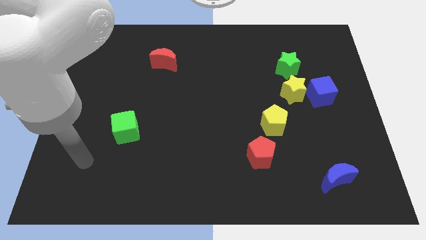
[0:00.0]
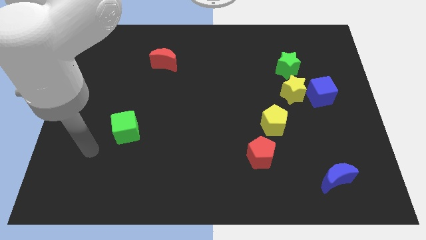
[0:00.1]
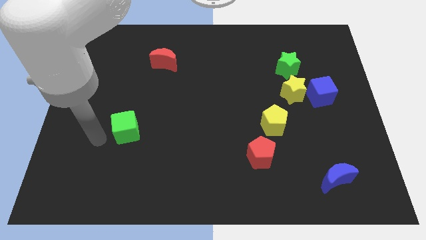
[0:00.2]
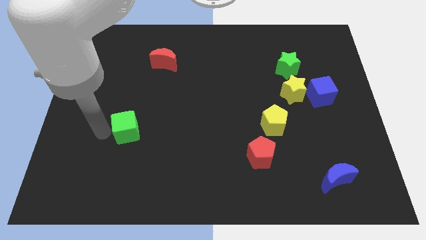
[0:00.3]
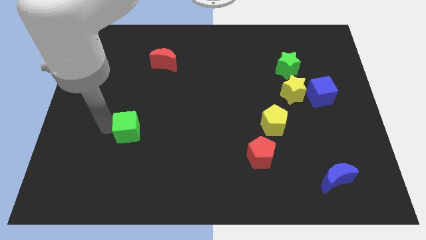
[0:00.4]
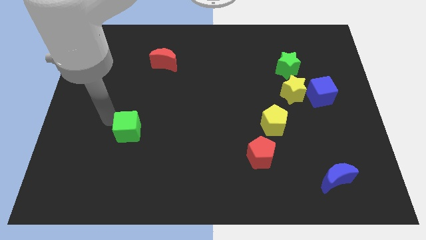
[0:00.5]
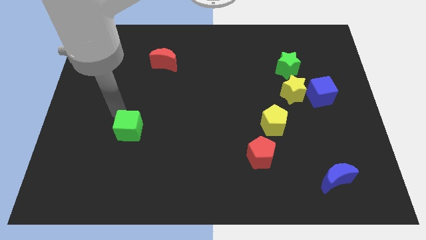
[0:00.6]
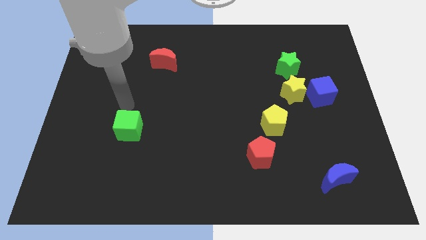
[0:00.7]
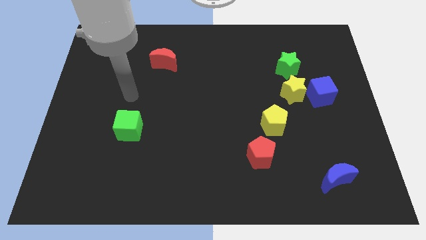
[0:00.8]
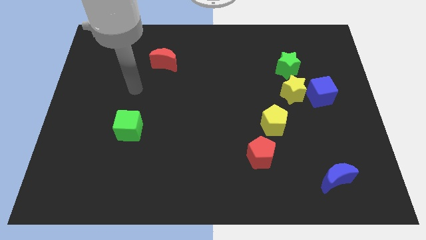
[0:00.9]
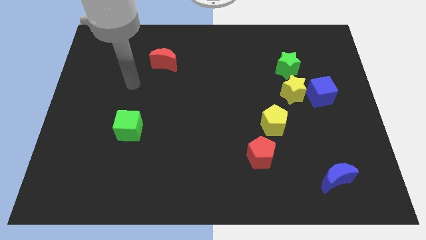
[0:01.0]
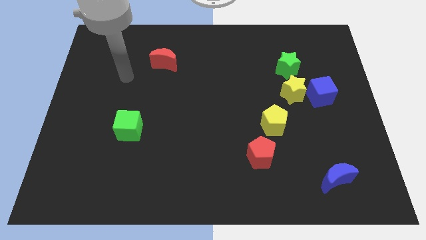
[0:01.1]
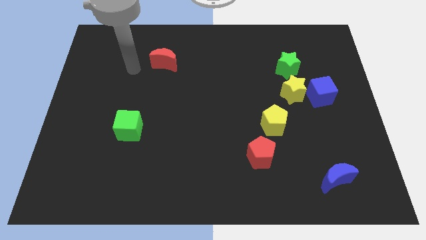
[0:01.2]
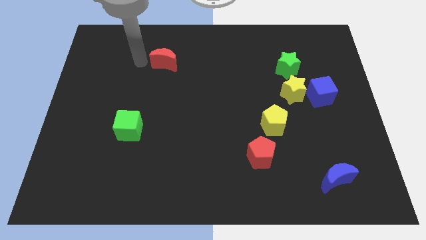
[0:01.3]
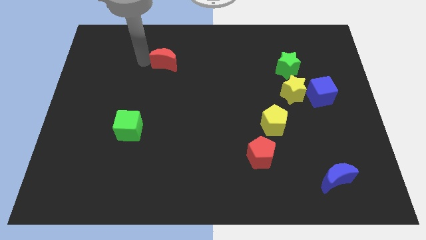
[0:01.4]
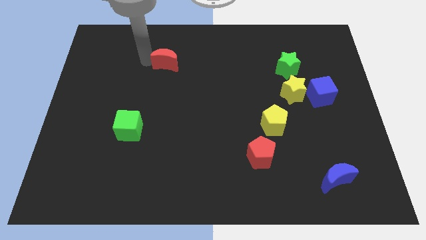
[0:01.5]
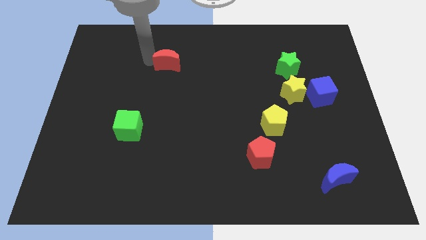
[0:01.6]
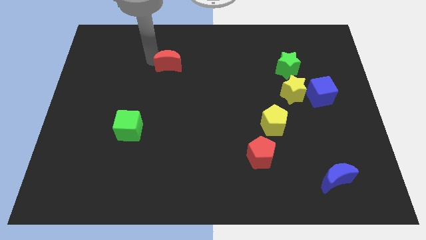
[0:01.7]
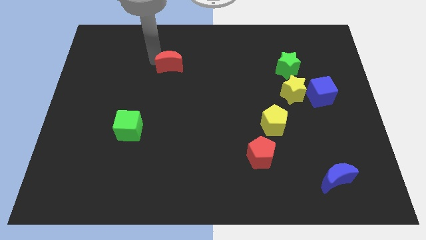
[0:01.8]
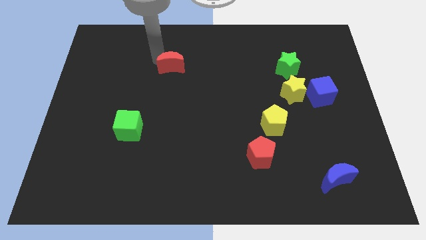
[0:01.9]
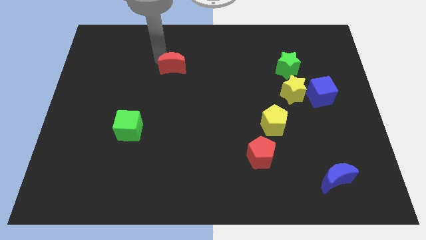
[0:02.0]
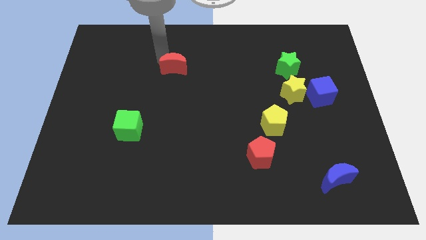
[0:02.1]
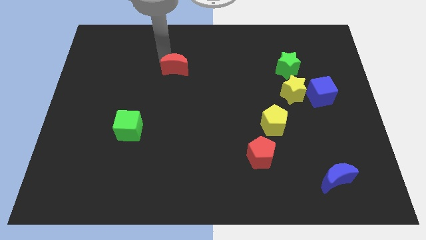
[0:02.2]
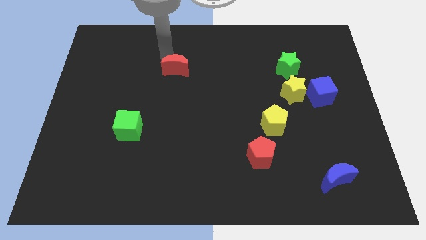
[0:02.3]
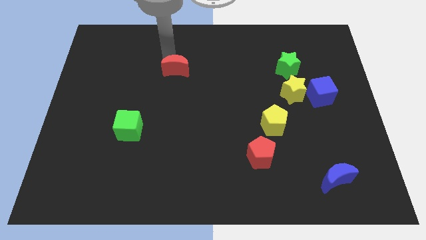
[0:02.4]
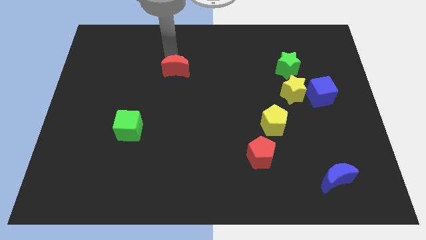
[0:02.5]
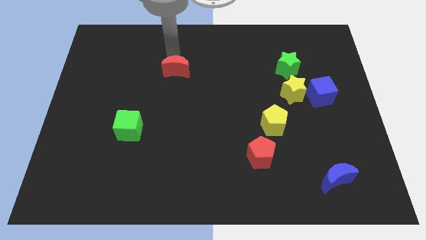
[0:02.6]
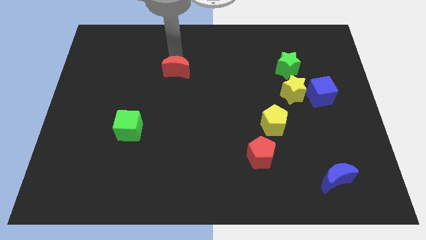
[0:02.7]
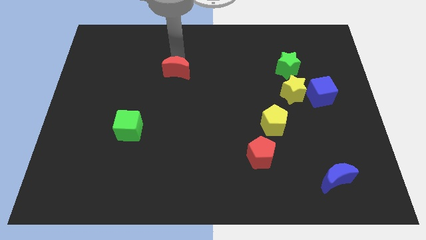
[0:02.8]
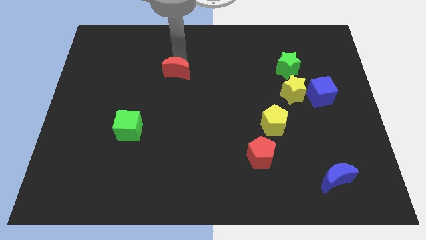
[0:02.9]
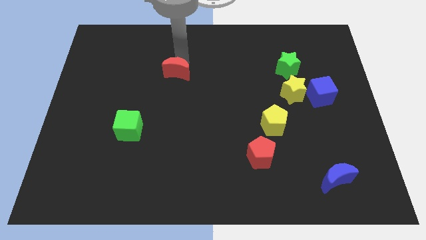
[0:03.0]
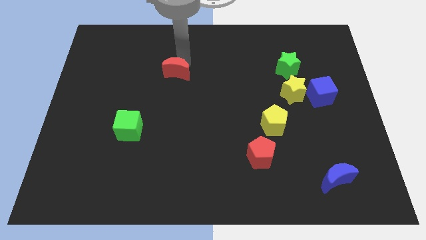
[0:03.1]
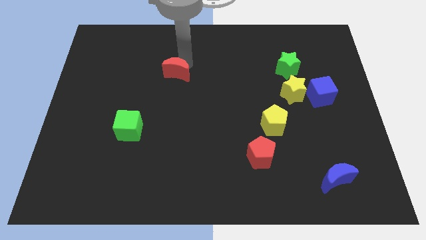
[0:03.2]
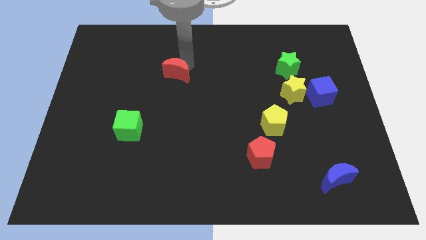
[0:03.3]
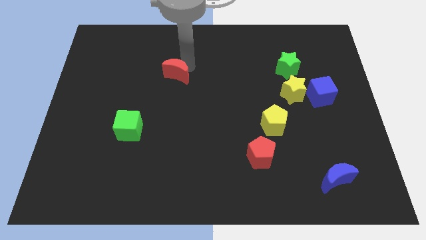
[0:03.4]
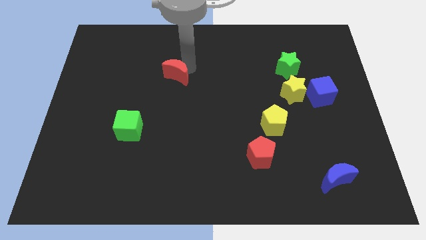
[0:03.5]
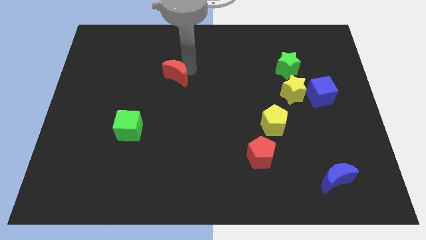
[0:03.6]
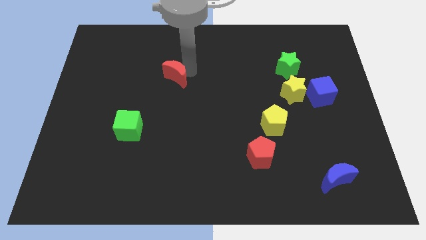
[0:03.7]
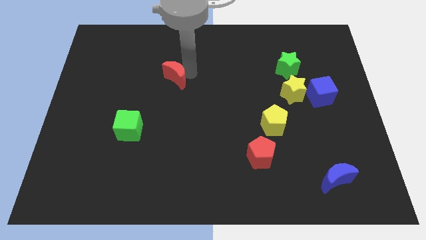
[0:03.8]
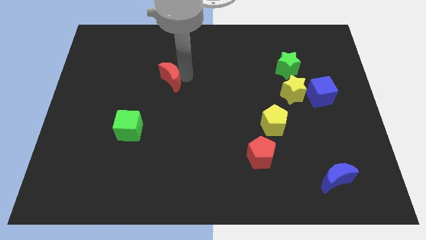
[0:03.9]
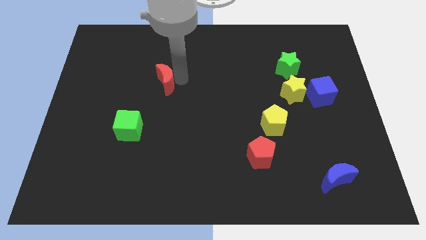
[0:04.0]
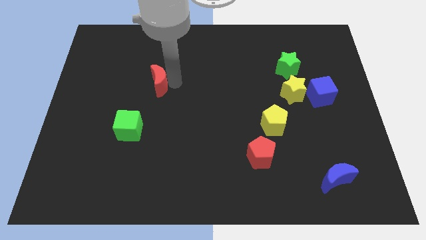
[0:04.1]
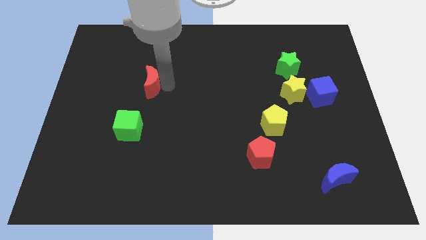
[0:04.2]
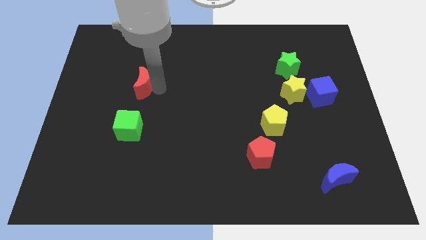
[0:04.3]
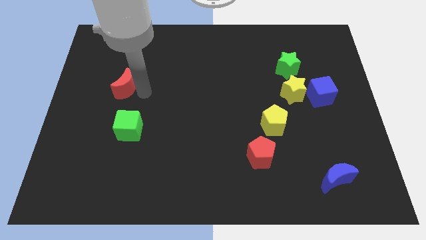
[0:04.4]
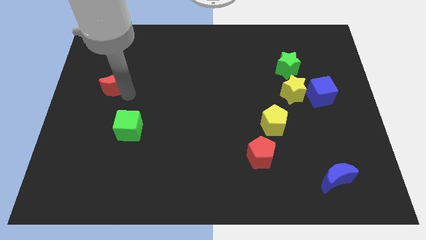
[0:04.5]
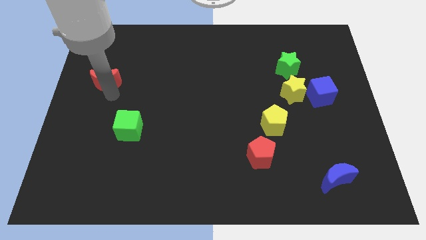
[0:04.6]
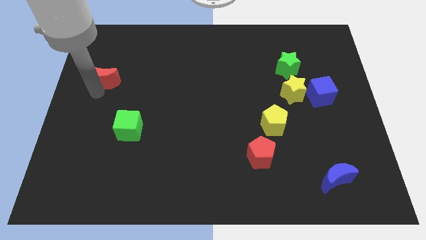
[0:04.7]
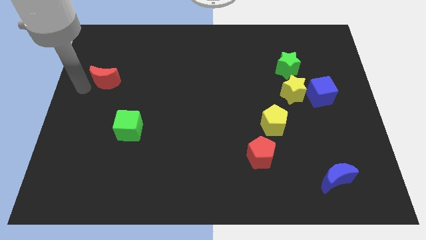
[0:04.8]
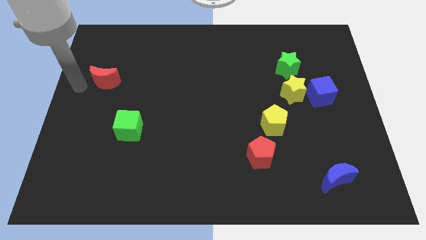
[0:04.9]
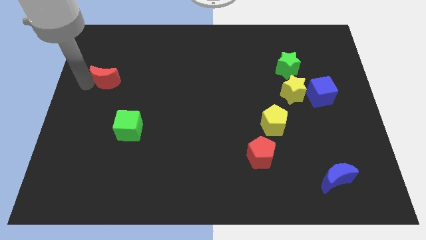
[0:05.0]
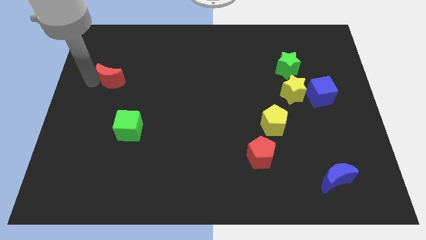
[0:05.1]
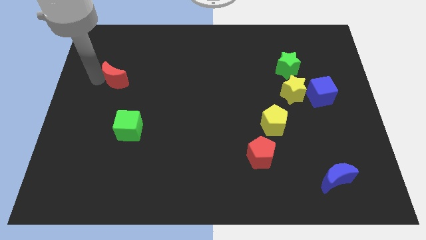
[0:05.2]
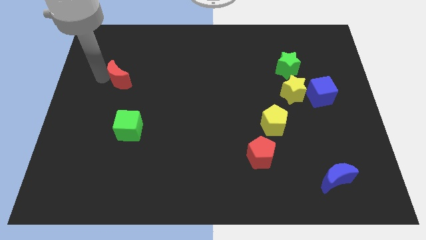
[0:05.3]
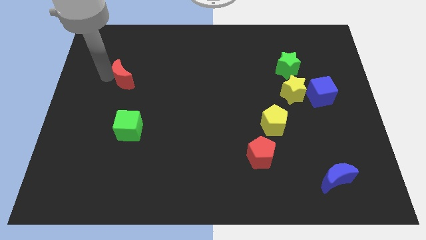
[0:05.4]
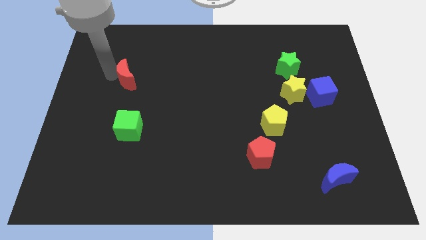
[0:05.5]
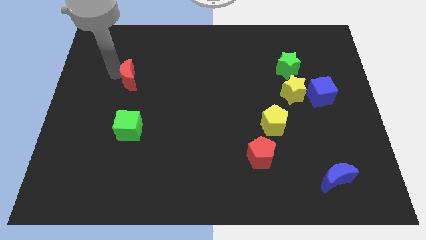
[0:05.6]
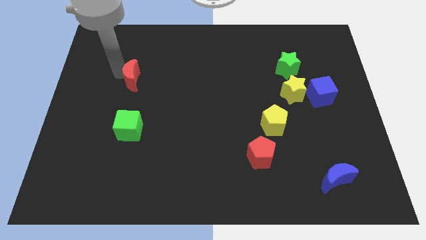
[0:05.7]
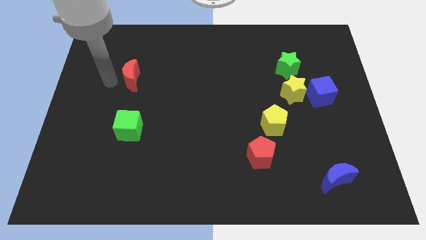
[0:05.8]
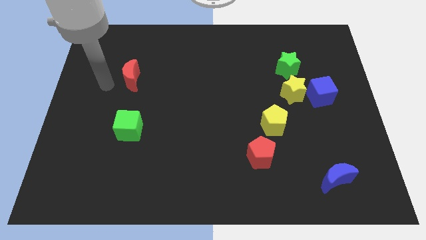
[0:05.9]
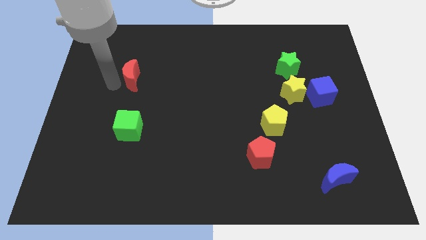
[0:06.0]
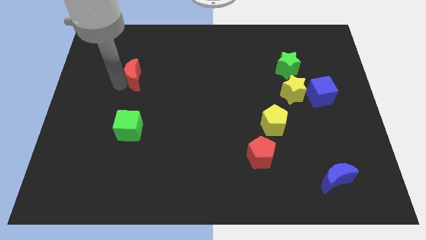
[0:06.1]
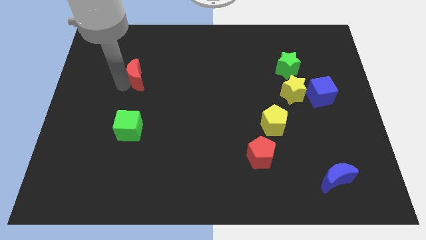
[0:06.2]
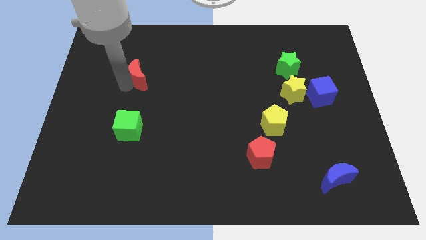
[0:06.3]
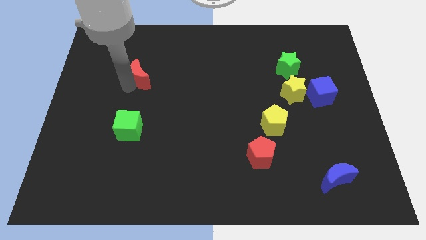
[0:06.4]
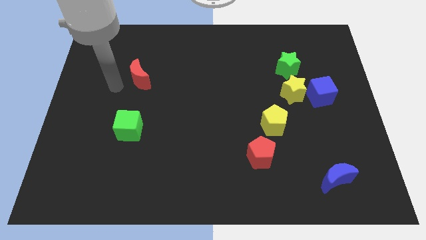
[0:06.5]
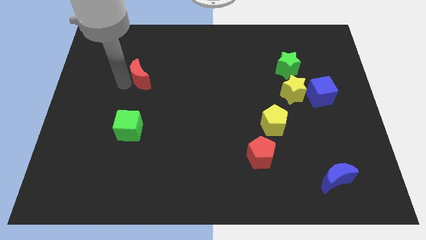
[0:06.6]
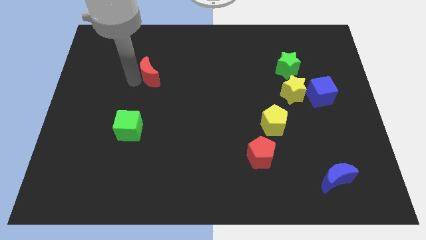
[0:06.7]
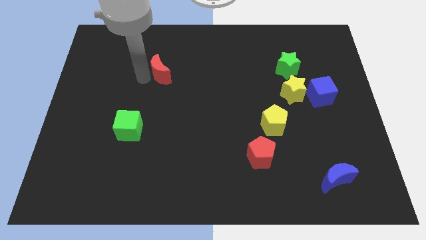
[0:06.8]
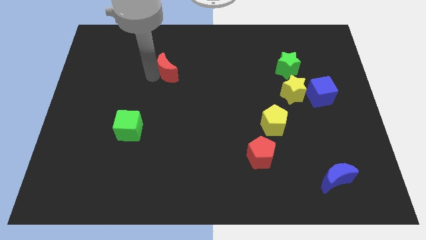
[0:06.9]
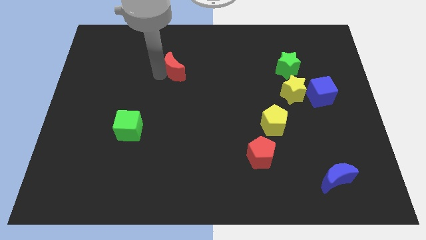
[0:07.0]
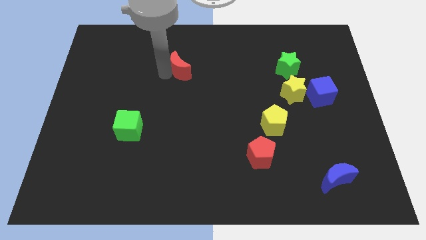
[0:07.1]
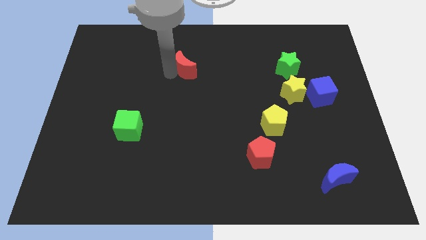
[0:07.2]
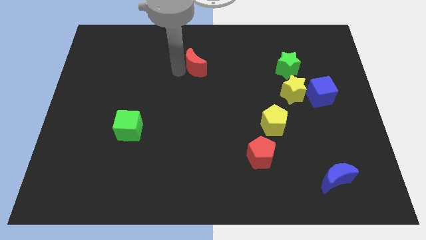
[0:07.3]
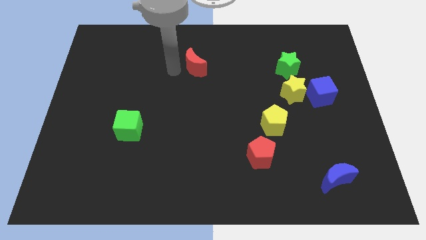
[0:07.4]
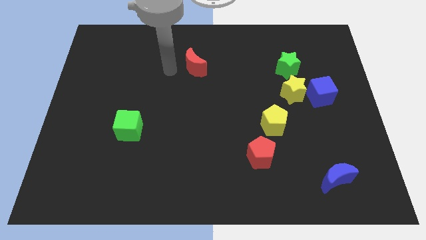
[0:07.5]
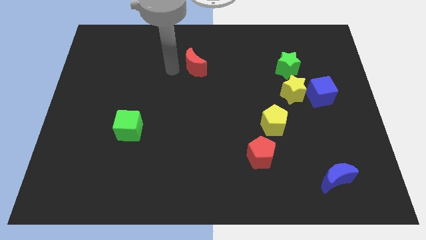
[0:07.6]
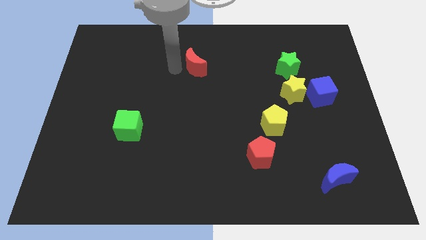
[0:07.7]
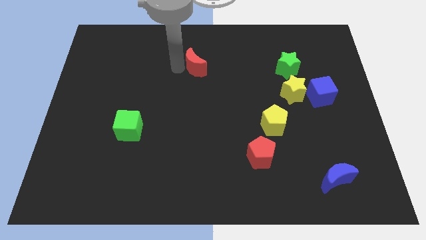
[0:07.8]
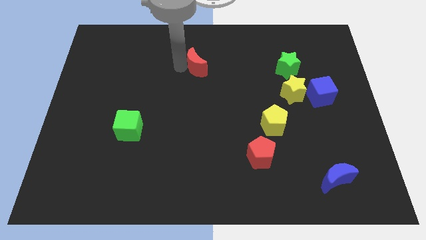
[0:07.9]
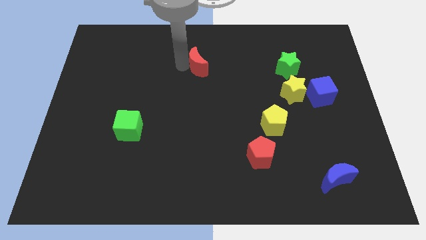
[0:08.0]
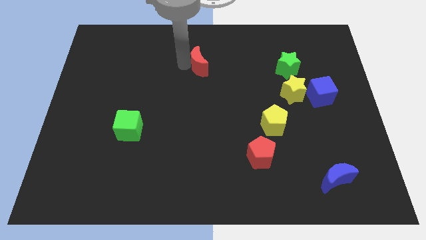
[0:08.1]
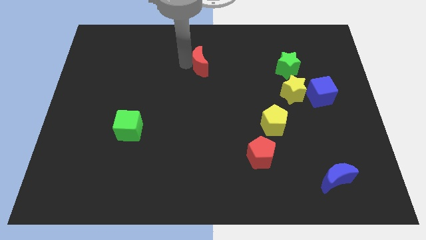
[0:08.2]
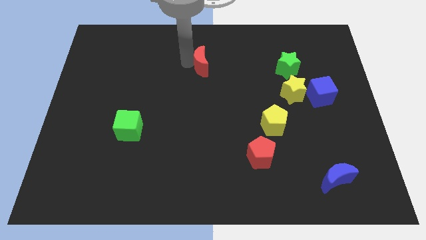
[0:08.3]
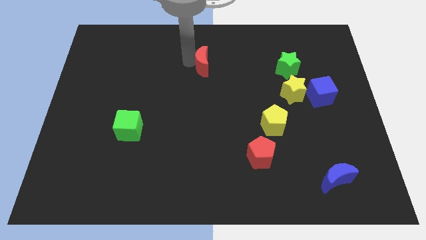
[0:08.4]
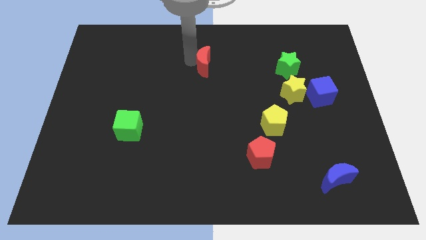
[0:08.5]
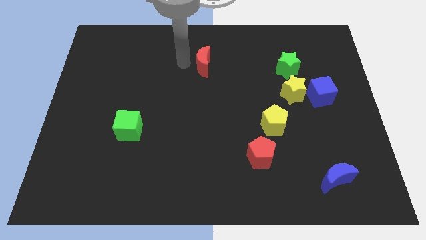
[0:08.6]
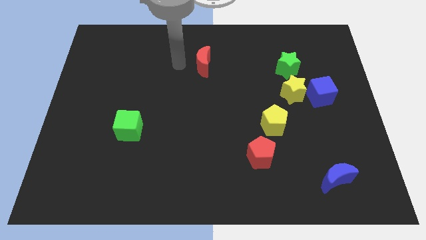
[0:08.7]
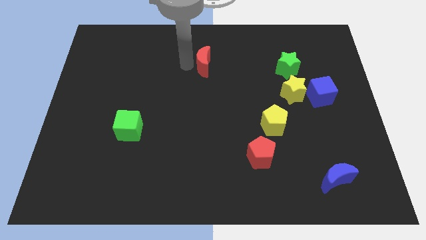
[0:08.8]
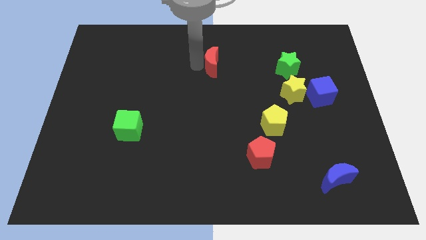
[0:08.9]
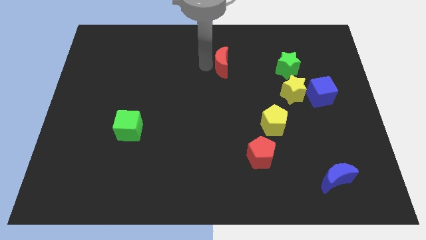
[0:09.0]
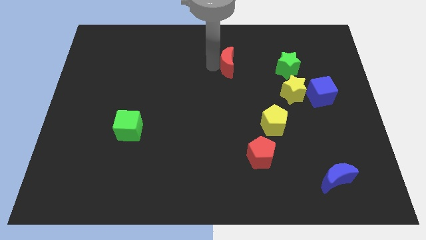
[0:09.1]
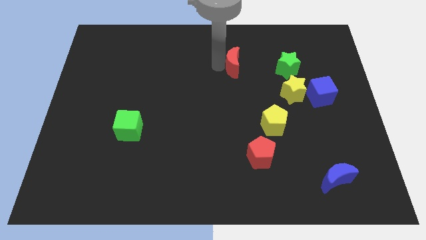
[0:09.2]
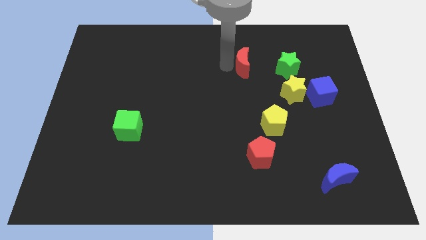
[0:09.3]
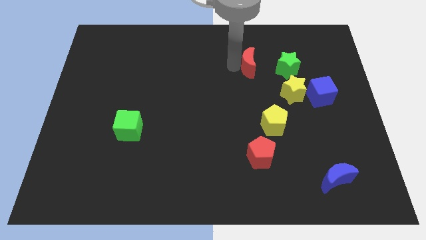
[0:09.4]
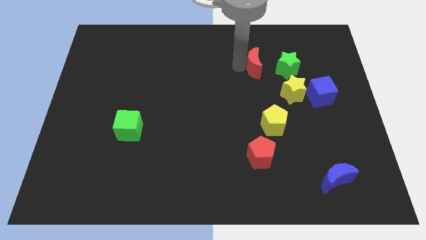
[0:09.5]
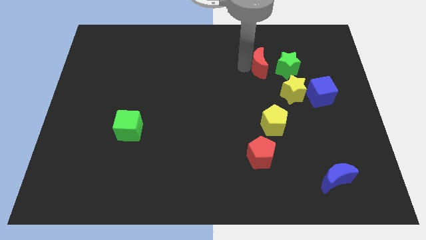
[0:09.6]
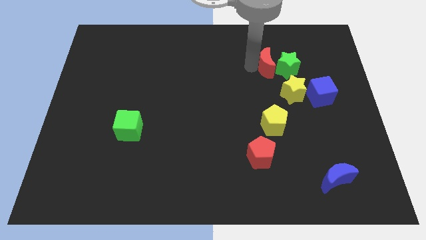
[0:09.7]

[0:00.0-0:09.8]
push the red moon close to the green star
